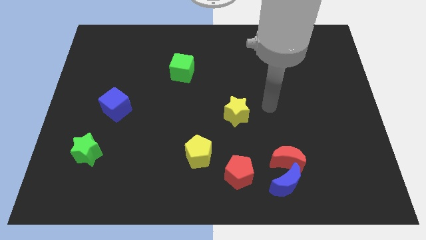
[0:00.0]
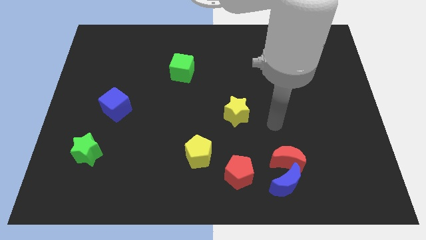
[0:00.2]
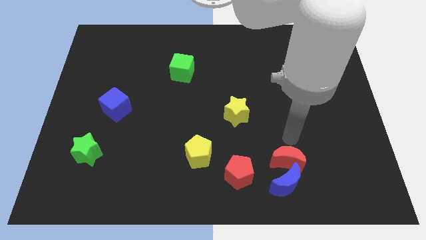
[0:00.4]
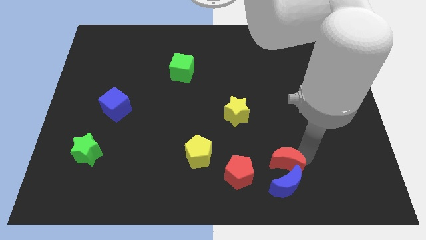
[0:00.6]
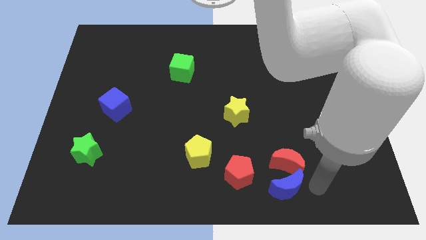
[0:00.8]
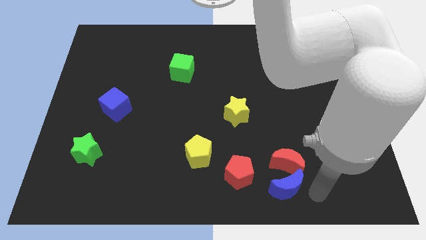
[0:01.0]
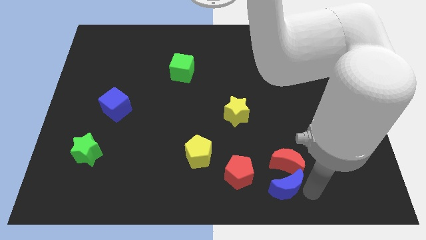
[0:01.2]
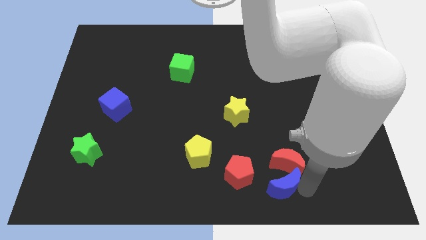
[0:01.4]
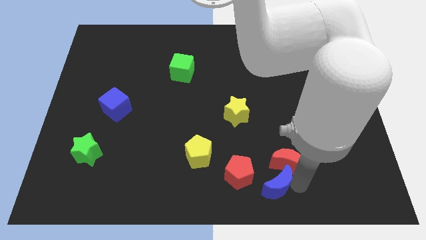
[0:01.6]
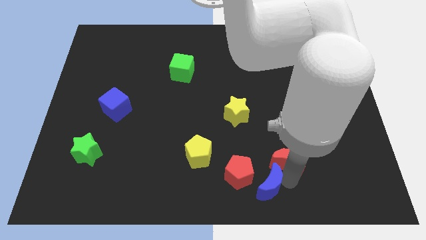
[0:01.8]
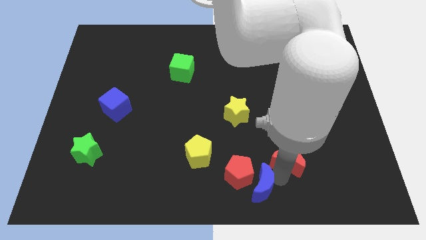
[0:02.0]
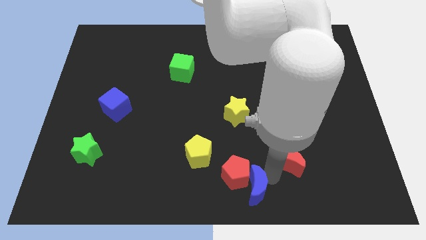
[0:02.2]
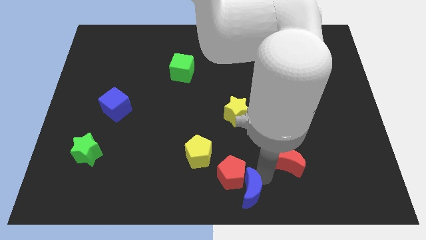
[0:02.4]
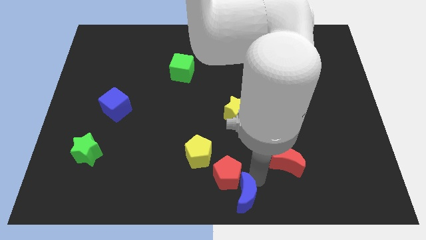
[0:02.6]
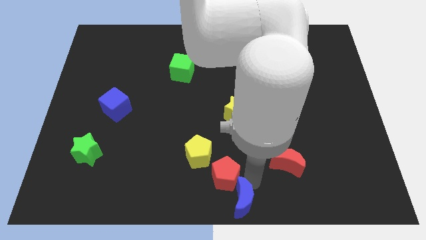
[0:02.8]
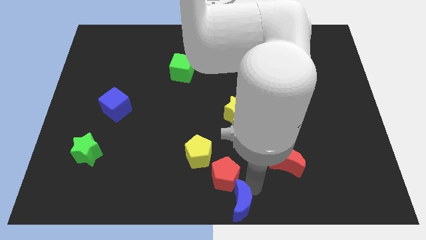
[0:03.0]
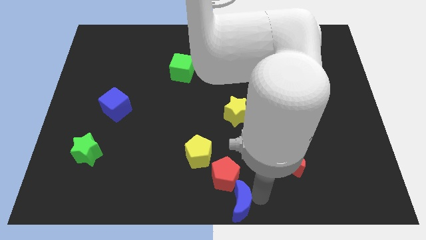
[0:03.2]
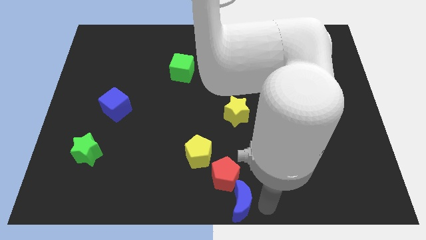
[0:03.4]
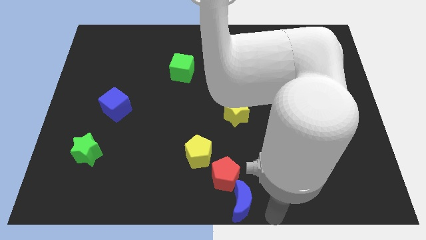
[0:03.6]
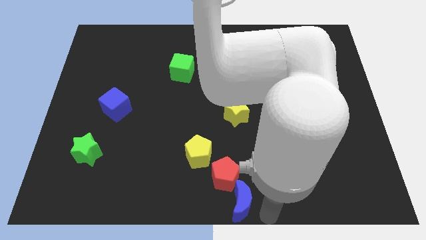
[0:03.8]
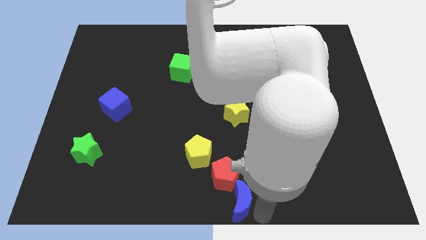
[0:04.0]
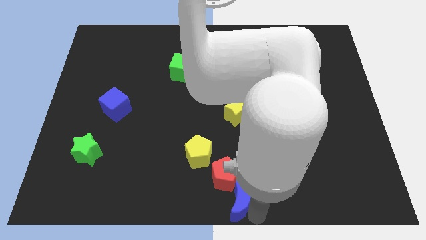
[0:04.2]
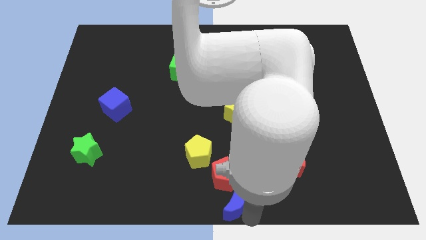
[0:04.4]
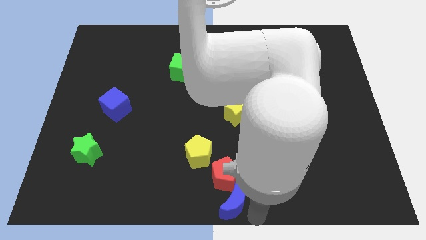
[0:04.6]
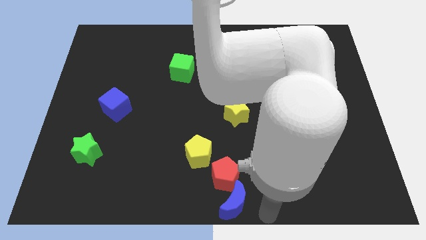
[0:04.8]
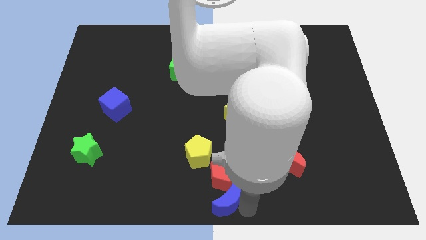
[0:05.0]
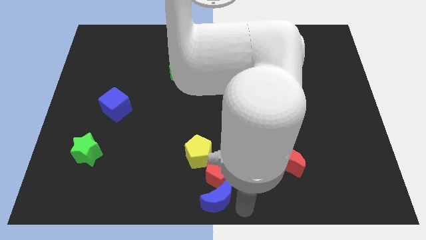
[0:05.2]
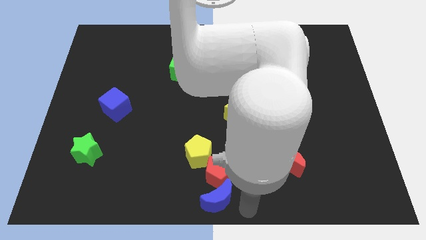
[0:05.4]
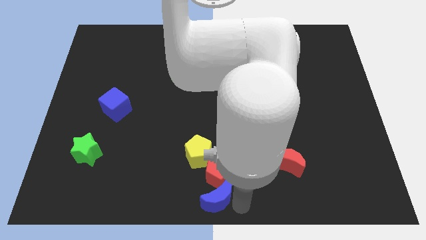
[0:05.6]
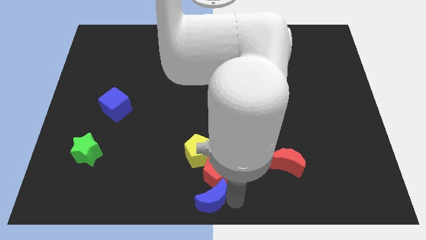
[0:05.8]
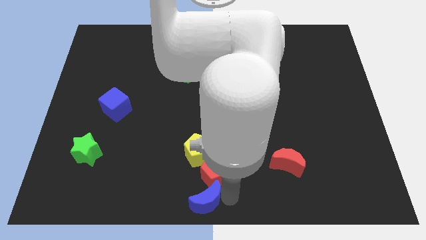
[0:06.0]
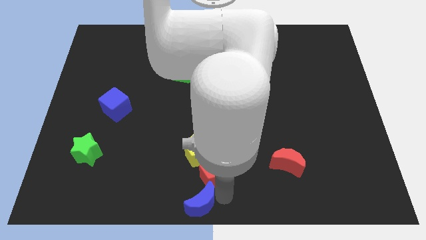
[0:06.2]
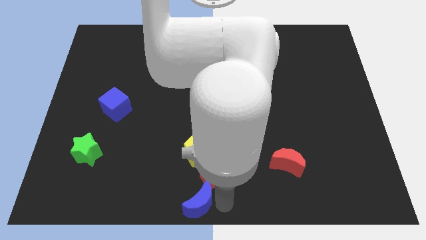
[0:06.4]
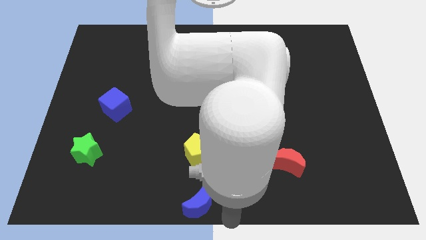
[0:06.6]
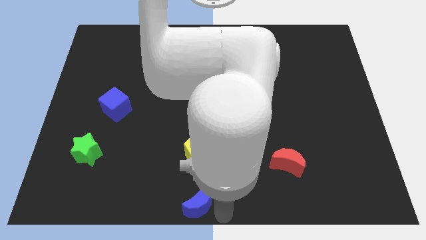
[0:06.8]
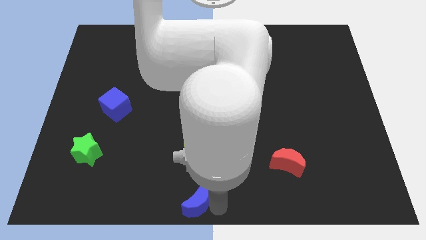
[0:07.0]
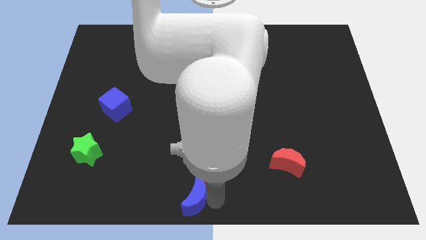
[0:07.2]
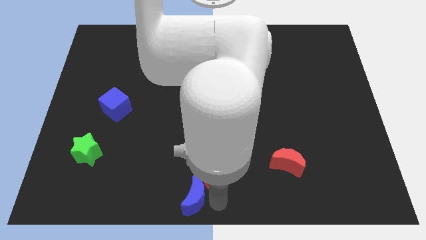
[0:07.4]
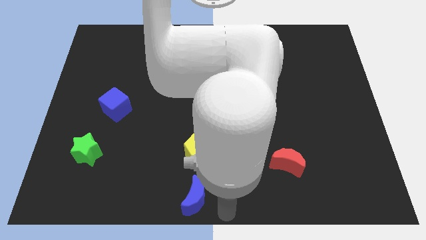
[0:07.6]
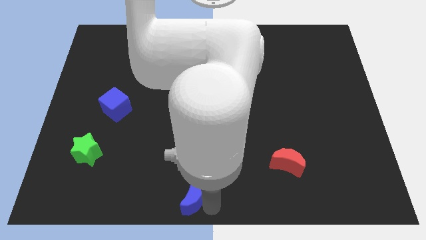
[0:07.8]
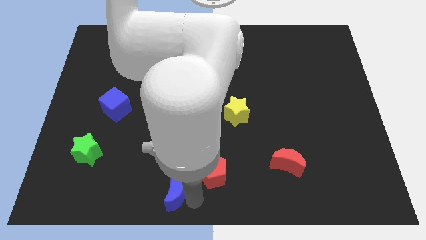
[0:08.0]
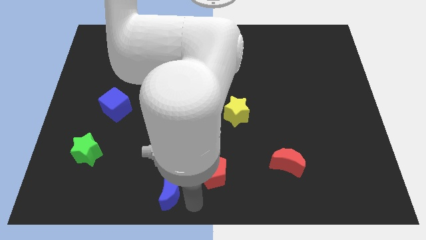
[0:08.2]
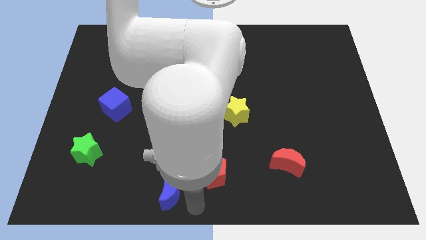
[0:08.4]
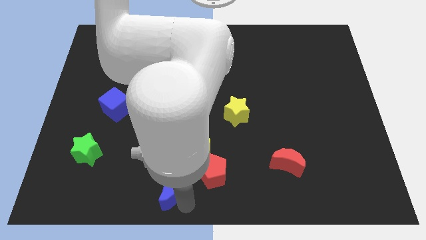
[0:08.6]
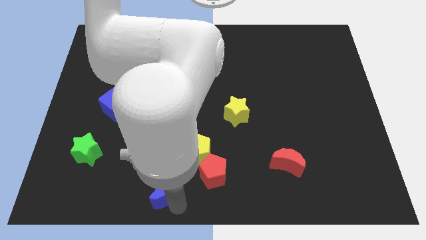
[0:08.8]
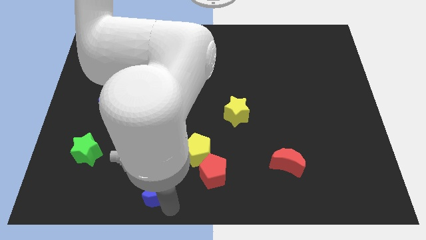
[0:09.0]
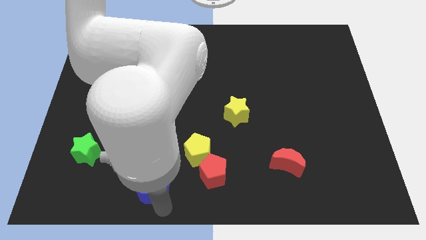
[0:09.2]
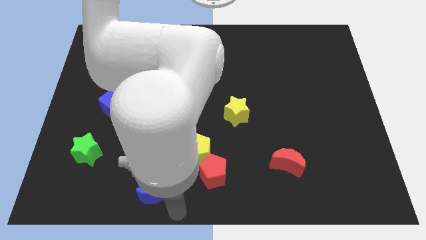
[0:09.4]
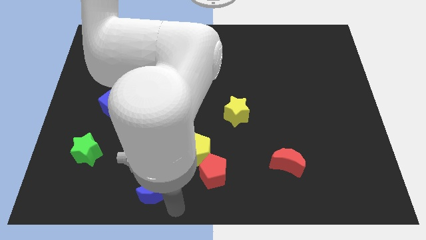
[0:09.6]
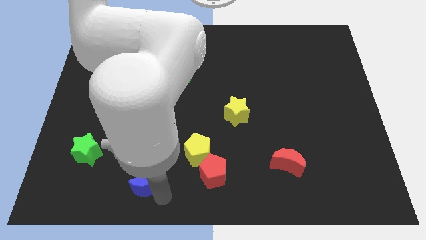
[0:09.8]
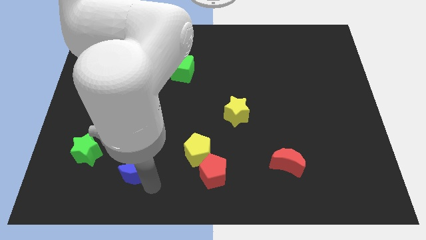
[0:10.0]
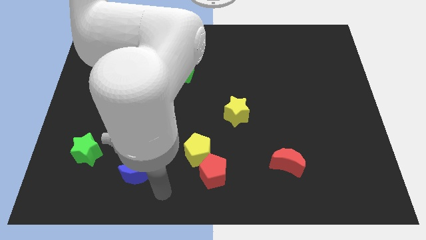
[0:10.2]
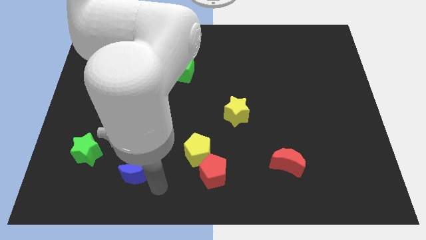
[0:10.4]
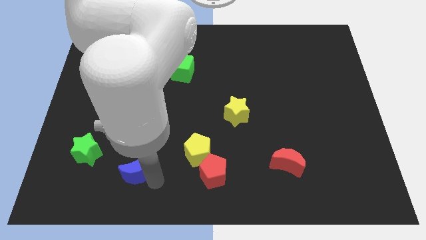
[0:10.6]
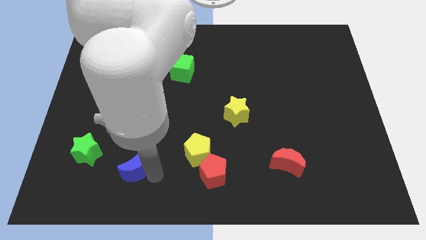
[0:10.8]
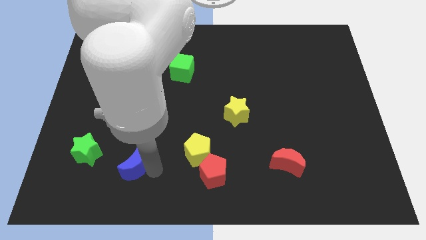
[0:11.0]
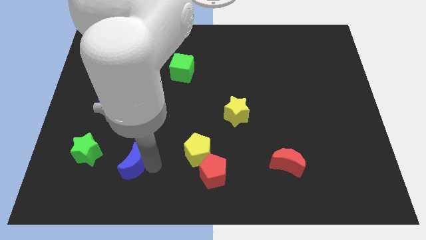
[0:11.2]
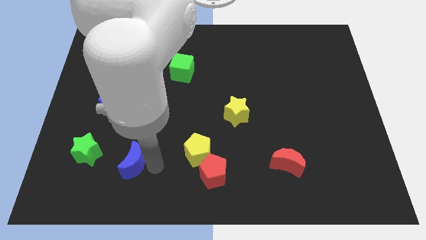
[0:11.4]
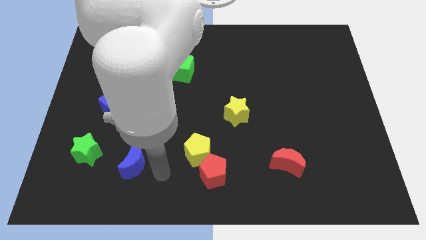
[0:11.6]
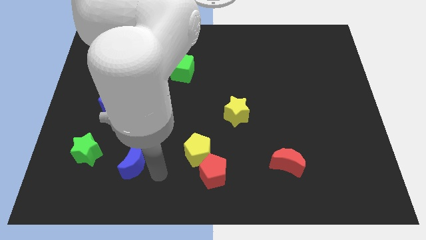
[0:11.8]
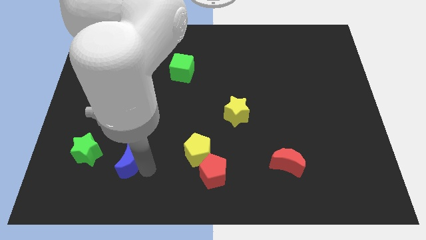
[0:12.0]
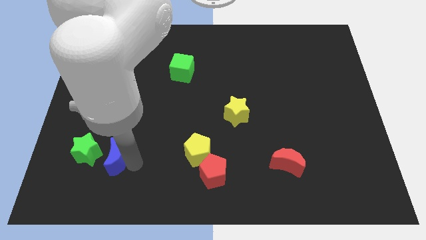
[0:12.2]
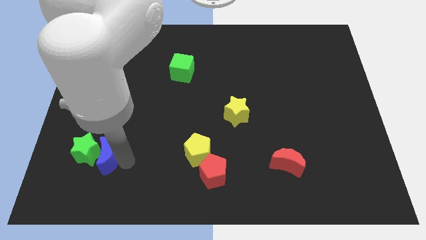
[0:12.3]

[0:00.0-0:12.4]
move the blue moon close to the green star

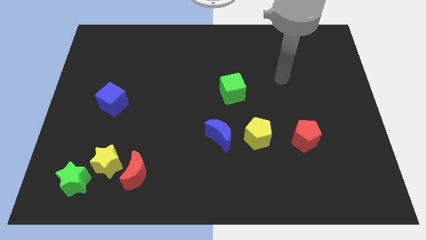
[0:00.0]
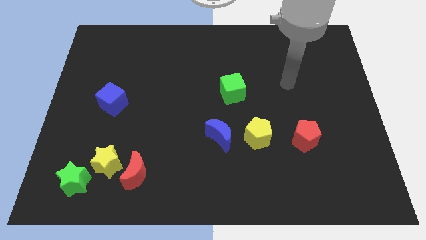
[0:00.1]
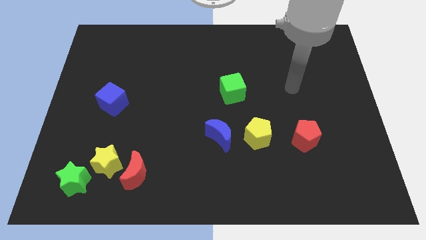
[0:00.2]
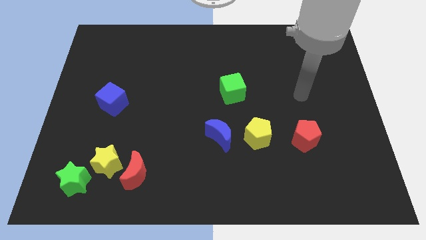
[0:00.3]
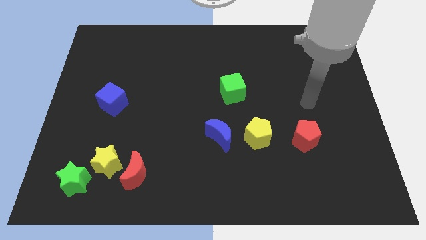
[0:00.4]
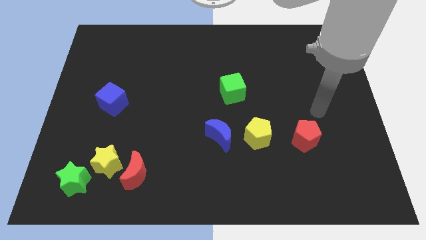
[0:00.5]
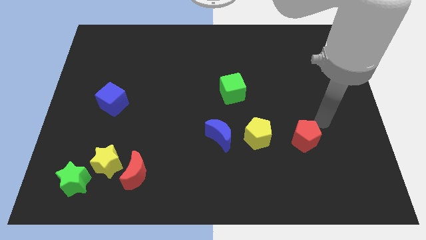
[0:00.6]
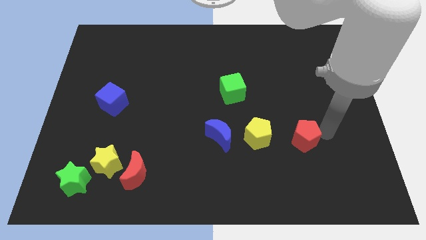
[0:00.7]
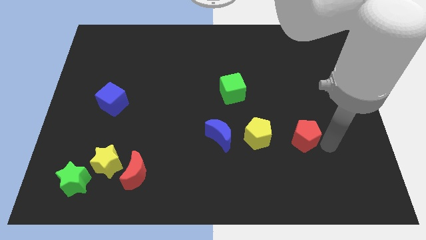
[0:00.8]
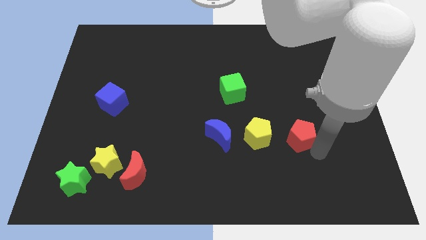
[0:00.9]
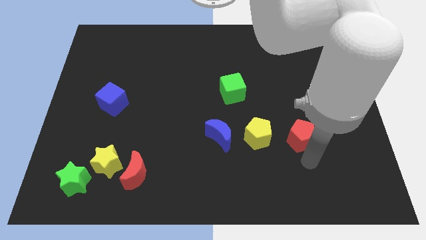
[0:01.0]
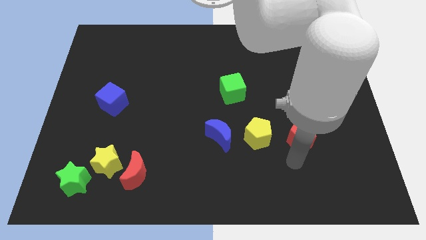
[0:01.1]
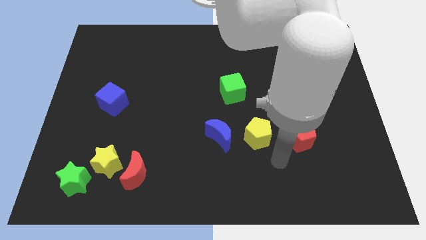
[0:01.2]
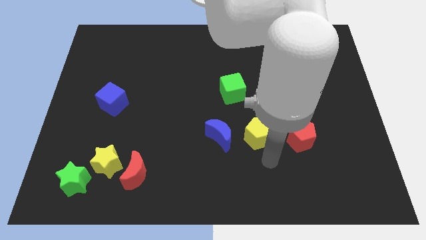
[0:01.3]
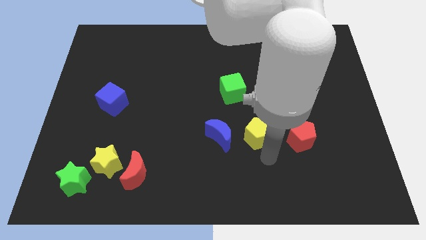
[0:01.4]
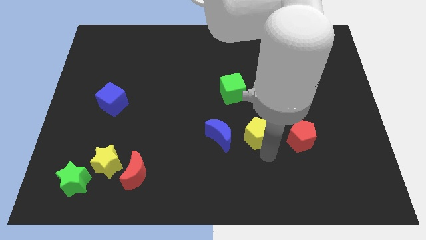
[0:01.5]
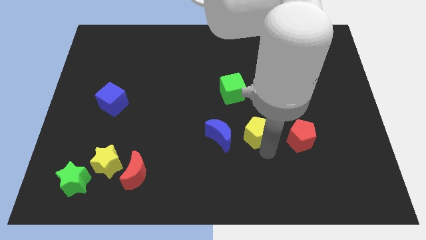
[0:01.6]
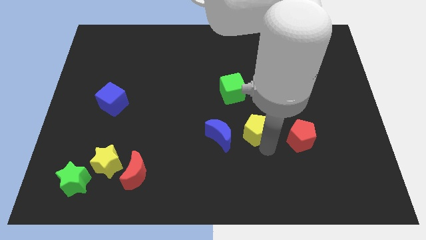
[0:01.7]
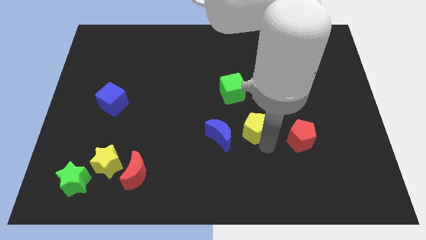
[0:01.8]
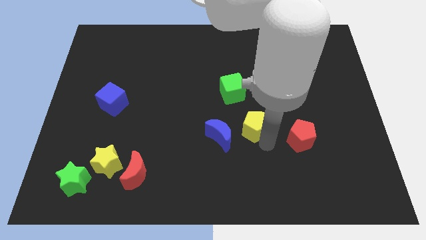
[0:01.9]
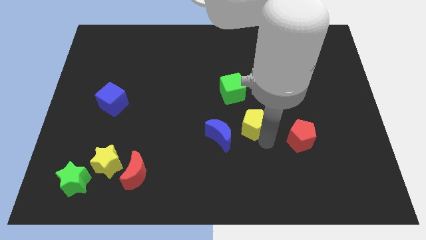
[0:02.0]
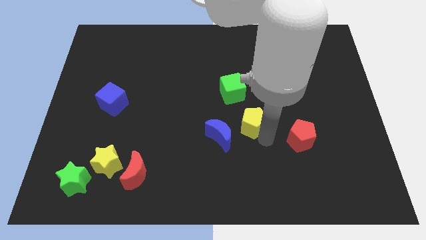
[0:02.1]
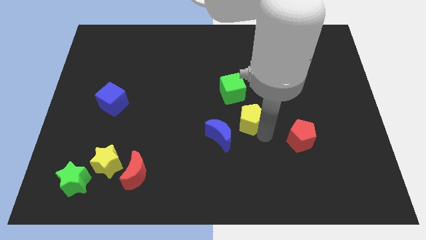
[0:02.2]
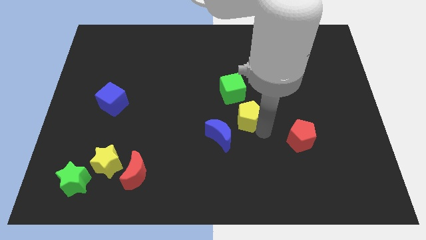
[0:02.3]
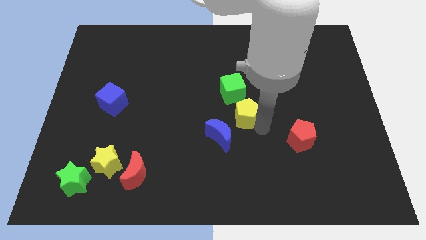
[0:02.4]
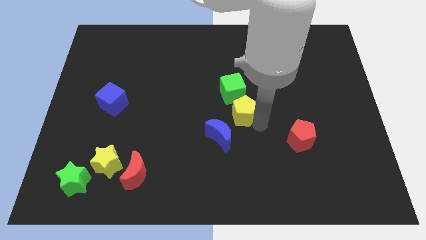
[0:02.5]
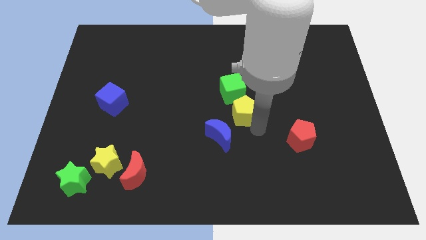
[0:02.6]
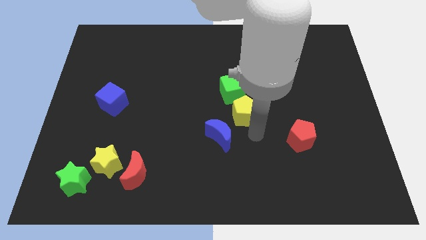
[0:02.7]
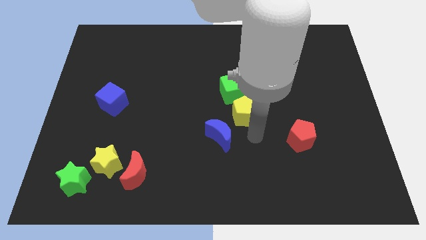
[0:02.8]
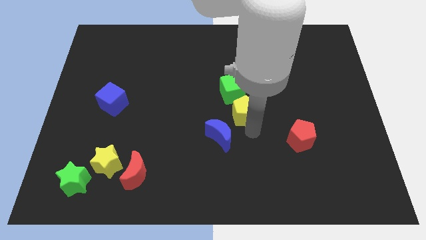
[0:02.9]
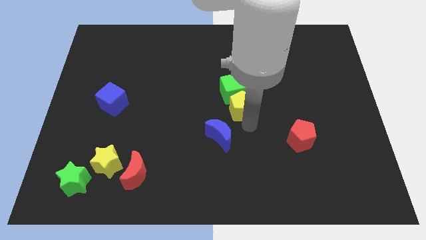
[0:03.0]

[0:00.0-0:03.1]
move the yellow pentagon close to the green cube
